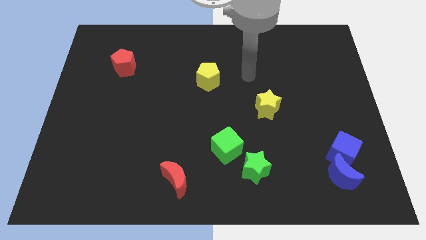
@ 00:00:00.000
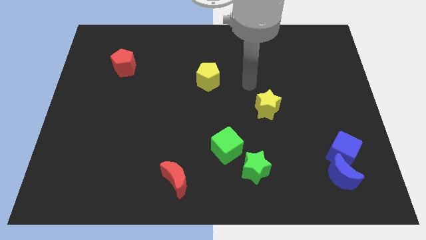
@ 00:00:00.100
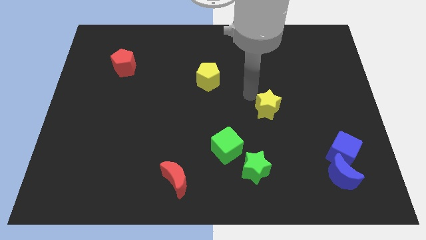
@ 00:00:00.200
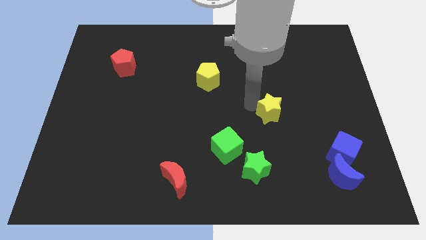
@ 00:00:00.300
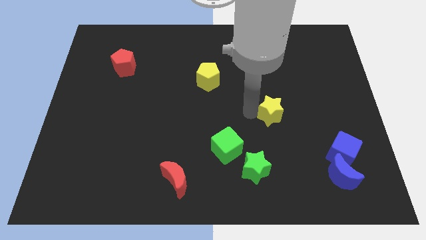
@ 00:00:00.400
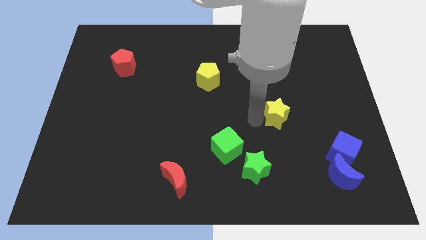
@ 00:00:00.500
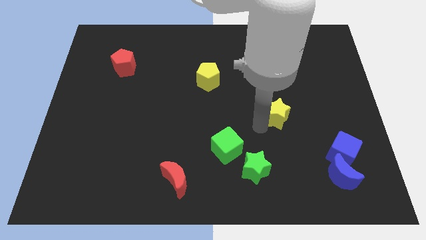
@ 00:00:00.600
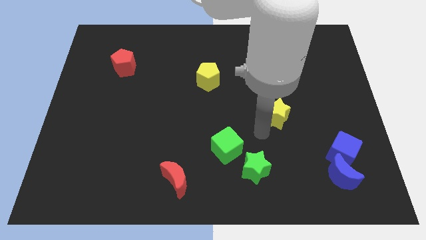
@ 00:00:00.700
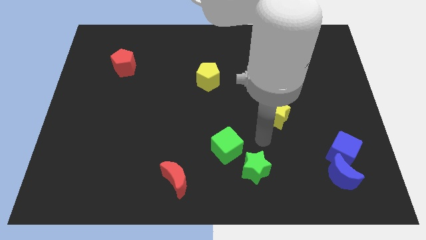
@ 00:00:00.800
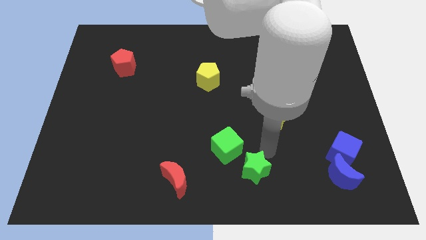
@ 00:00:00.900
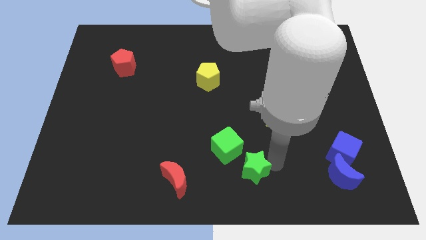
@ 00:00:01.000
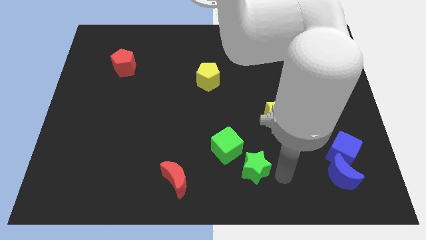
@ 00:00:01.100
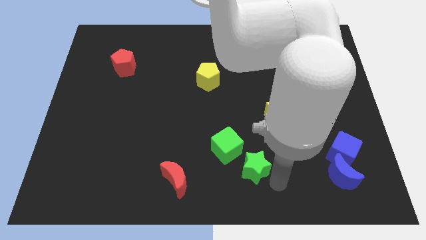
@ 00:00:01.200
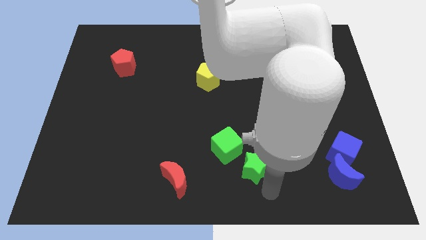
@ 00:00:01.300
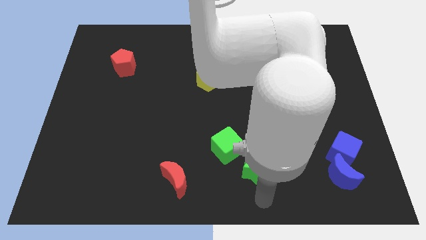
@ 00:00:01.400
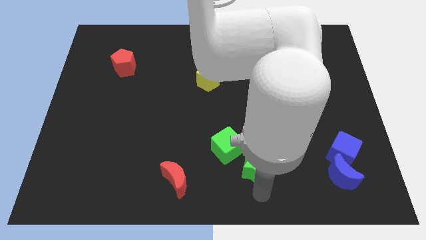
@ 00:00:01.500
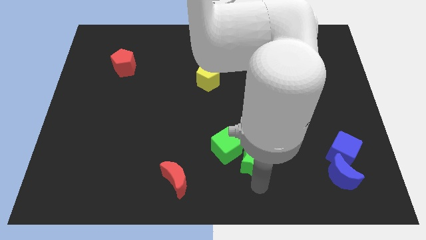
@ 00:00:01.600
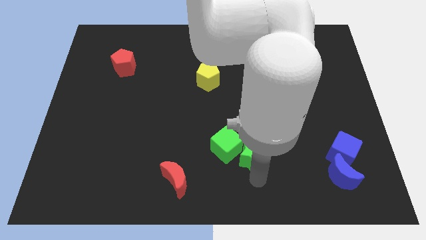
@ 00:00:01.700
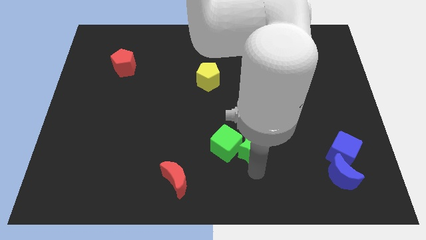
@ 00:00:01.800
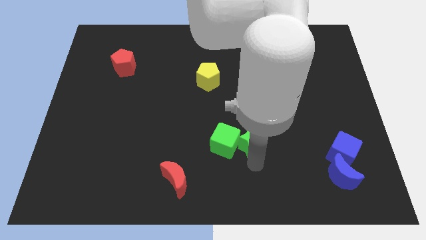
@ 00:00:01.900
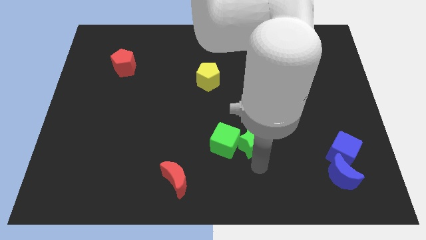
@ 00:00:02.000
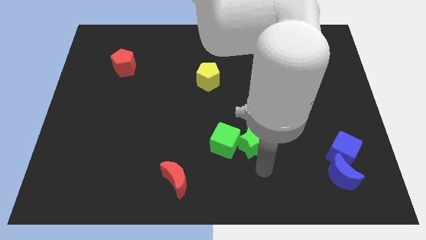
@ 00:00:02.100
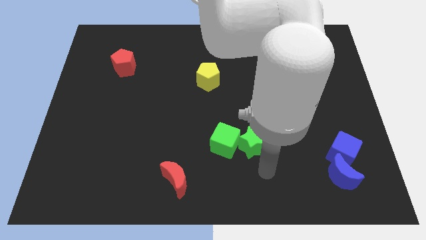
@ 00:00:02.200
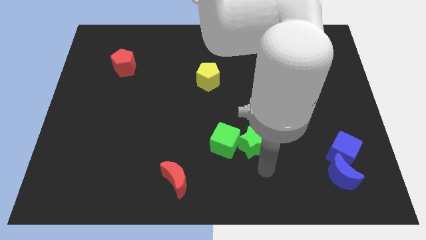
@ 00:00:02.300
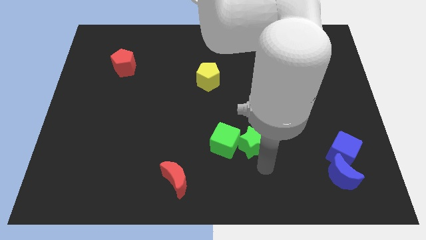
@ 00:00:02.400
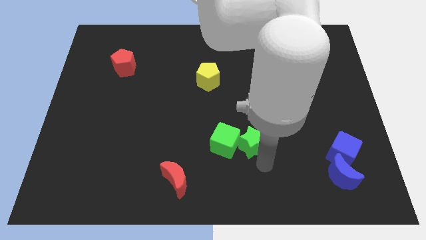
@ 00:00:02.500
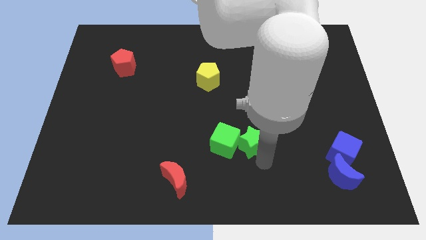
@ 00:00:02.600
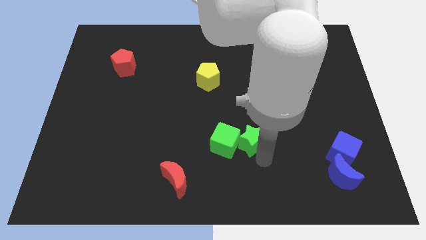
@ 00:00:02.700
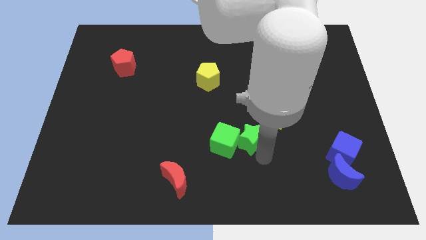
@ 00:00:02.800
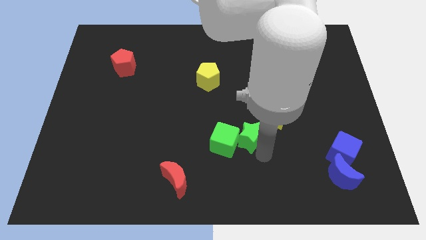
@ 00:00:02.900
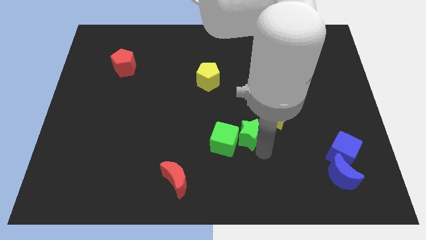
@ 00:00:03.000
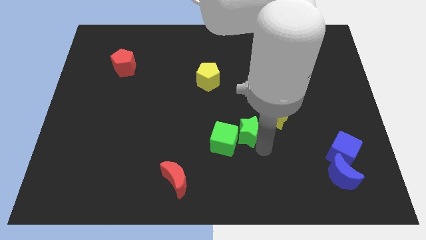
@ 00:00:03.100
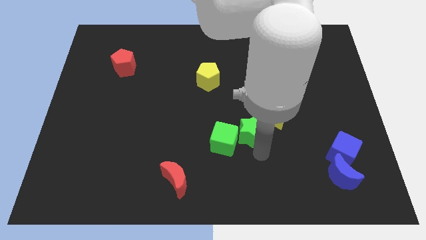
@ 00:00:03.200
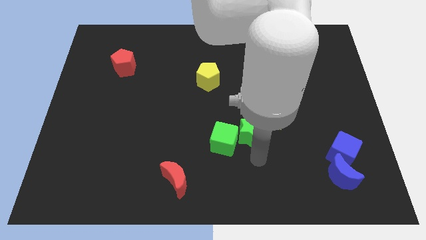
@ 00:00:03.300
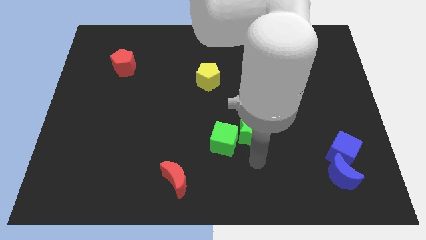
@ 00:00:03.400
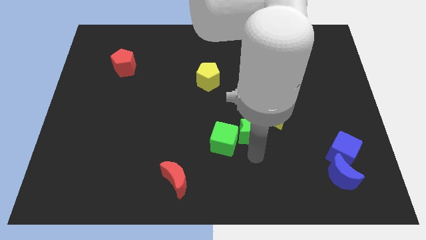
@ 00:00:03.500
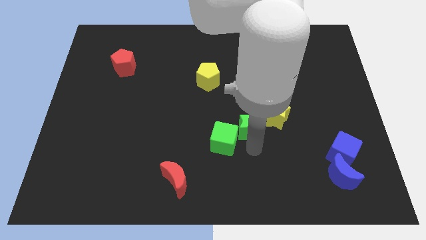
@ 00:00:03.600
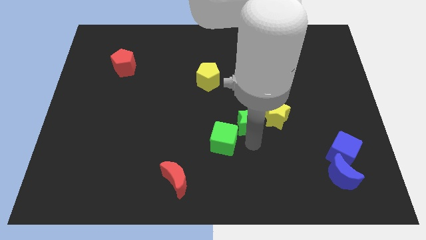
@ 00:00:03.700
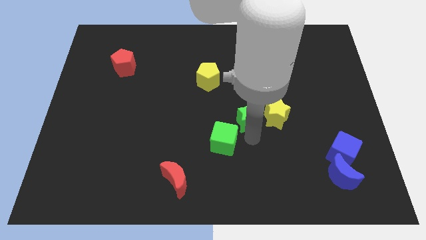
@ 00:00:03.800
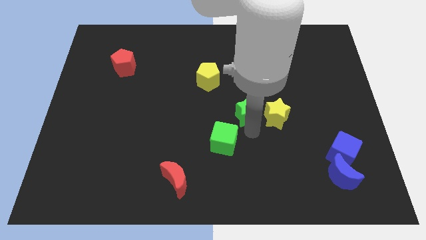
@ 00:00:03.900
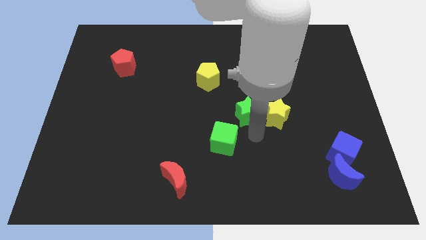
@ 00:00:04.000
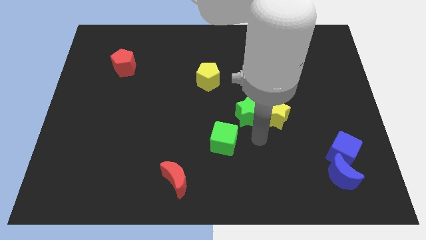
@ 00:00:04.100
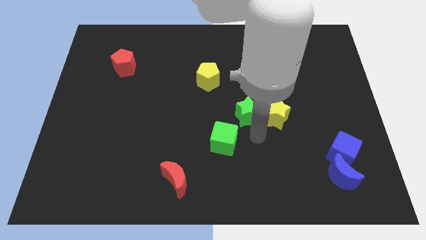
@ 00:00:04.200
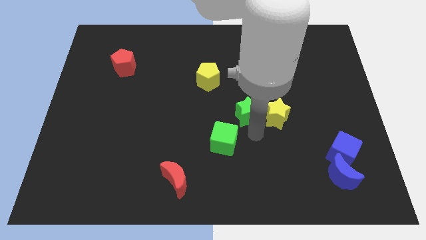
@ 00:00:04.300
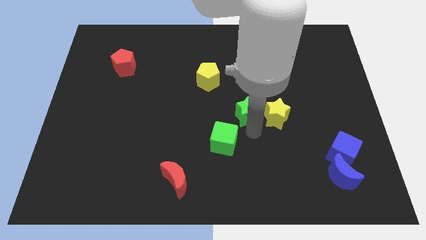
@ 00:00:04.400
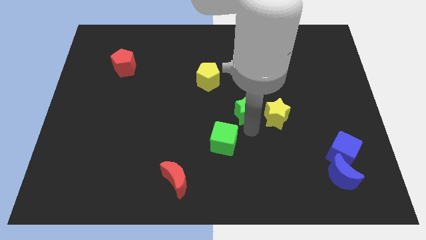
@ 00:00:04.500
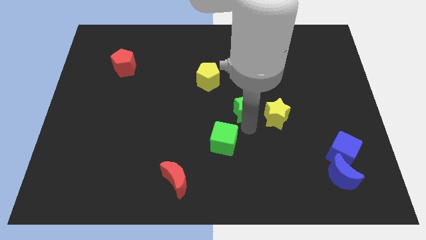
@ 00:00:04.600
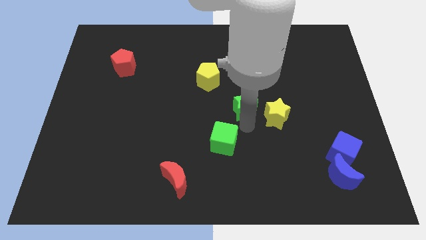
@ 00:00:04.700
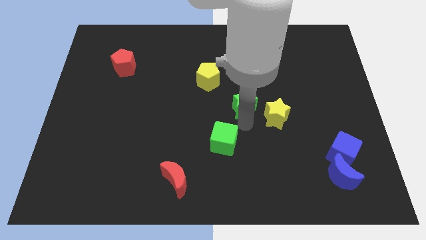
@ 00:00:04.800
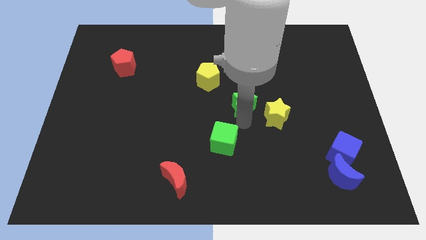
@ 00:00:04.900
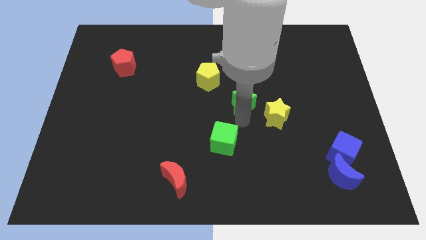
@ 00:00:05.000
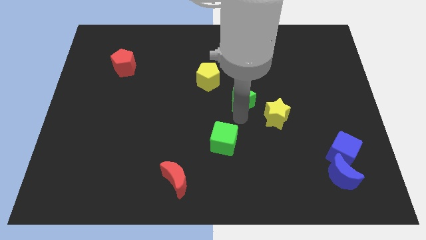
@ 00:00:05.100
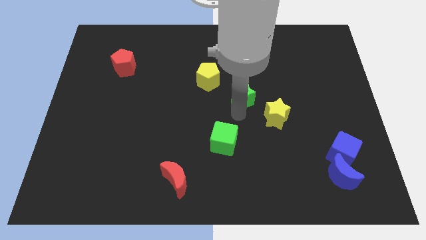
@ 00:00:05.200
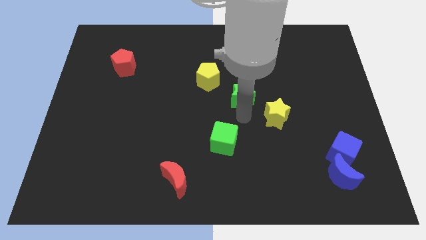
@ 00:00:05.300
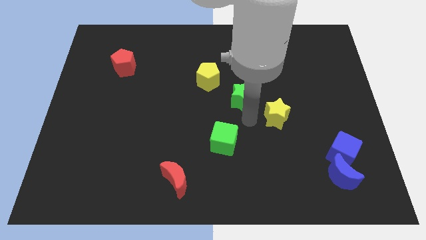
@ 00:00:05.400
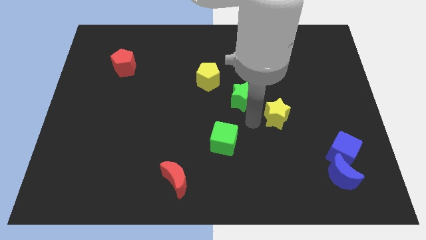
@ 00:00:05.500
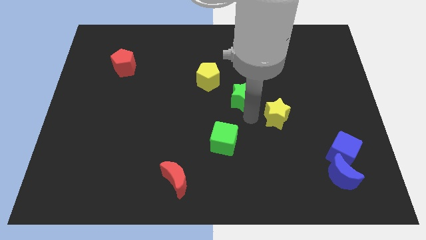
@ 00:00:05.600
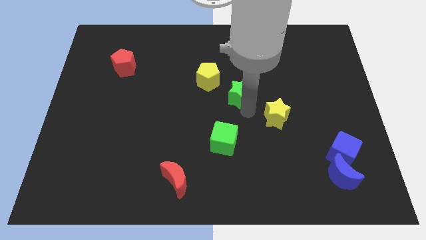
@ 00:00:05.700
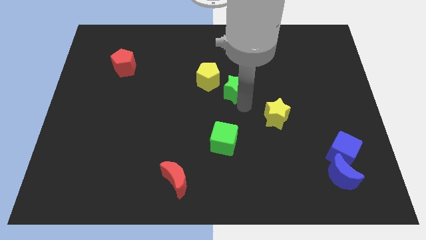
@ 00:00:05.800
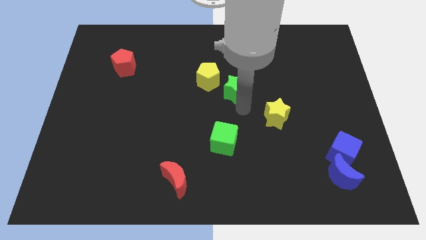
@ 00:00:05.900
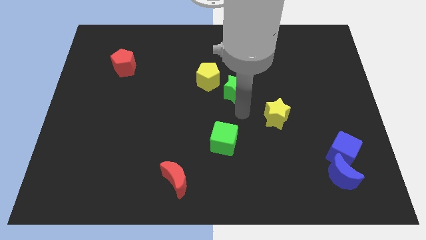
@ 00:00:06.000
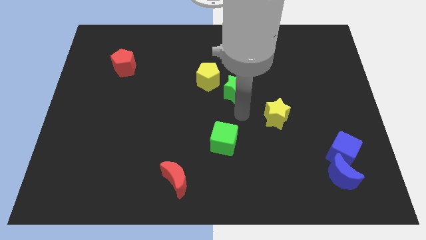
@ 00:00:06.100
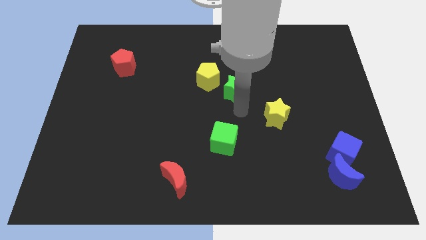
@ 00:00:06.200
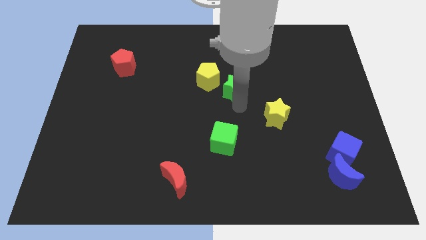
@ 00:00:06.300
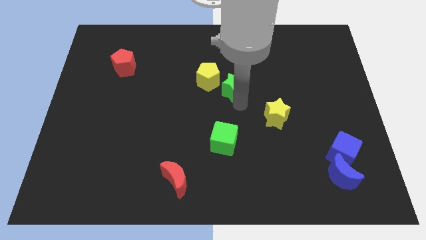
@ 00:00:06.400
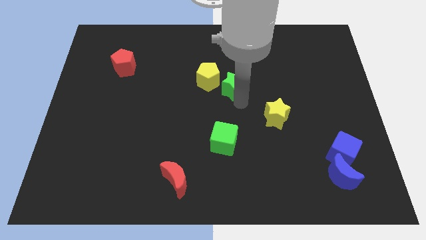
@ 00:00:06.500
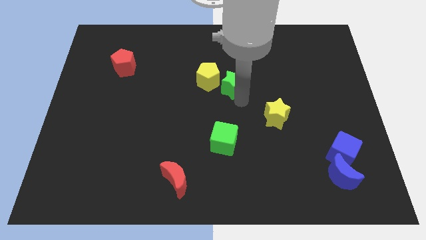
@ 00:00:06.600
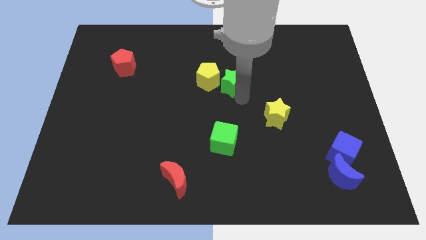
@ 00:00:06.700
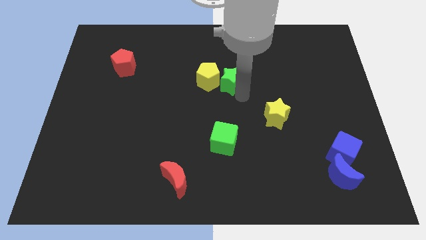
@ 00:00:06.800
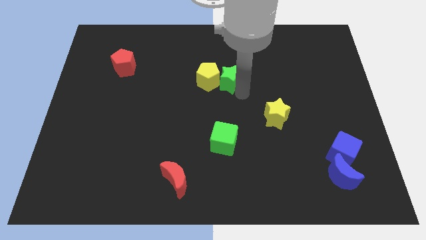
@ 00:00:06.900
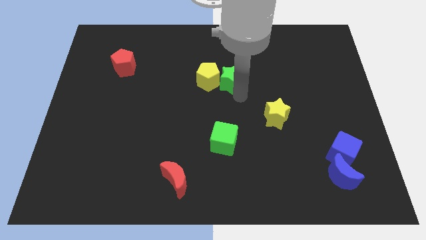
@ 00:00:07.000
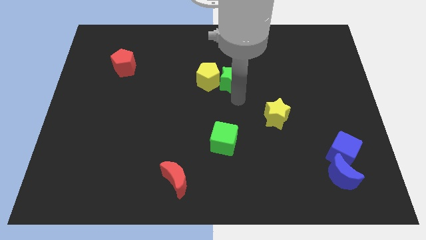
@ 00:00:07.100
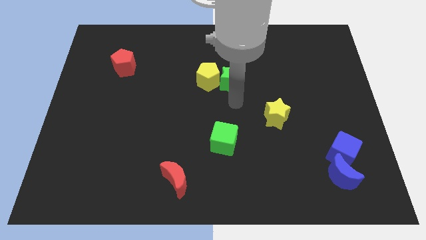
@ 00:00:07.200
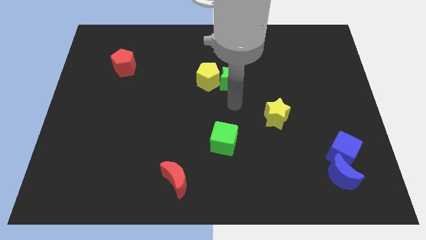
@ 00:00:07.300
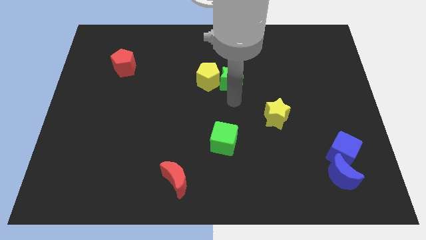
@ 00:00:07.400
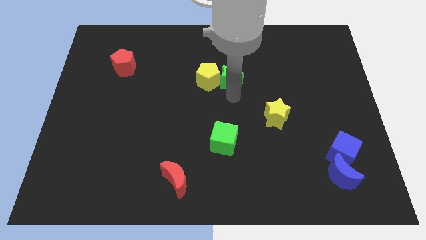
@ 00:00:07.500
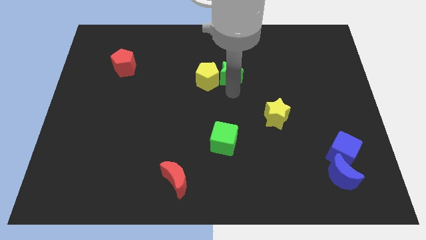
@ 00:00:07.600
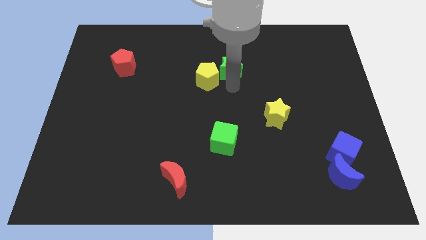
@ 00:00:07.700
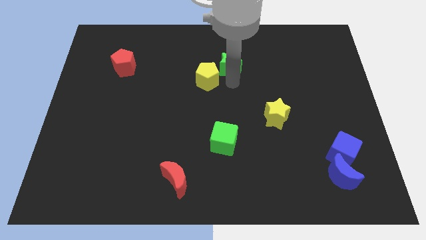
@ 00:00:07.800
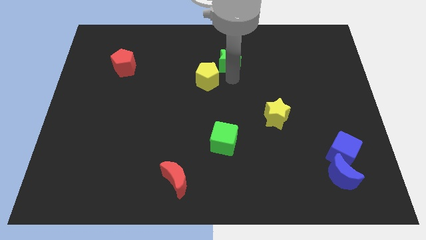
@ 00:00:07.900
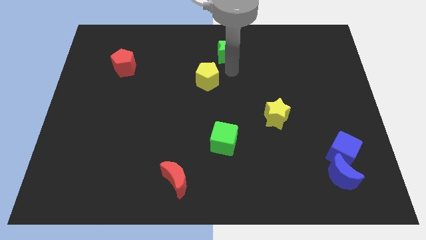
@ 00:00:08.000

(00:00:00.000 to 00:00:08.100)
push the green star to the towards your base
